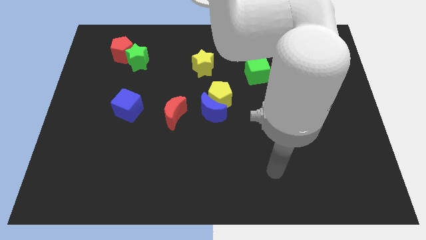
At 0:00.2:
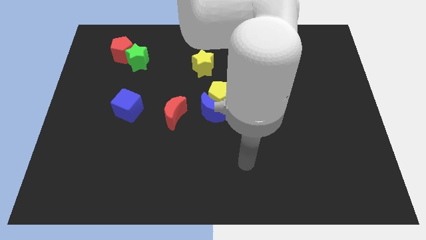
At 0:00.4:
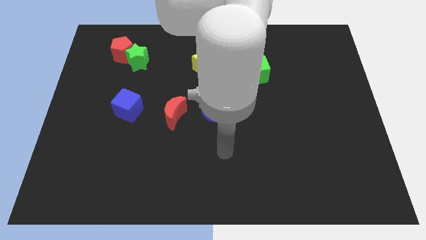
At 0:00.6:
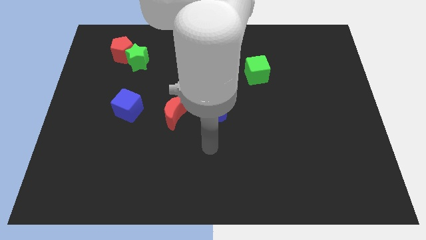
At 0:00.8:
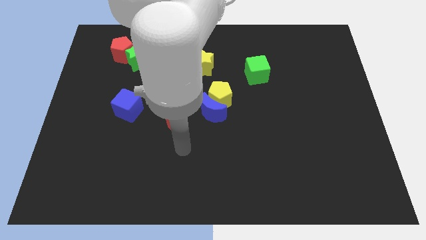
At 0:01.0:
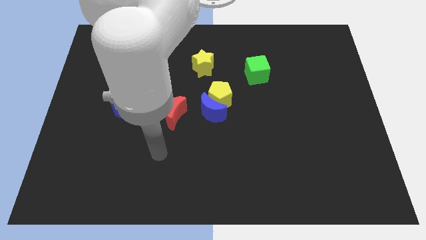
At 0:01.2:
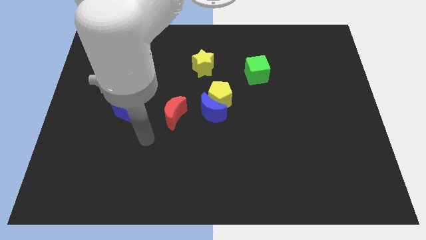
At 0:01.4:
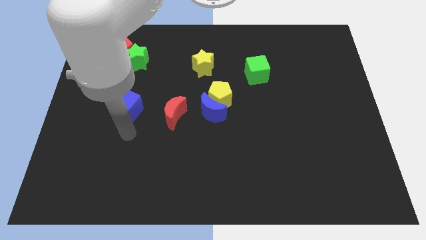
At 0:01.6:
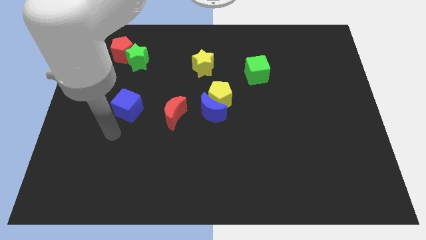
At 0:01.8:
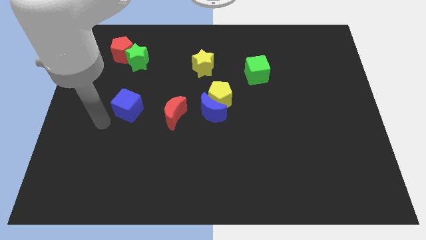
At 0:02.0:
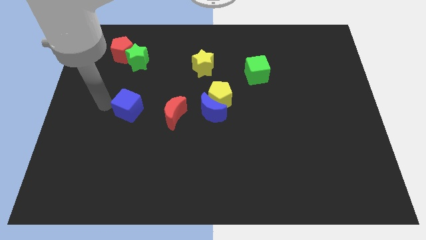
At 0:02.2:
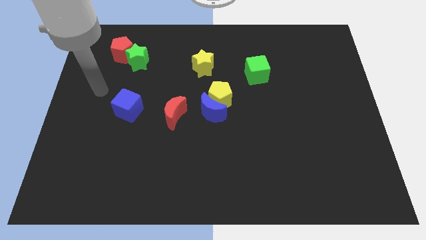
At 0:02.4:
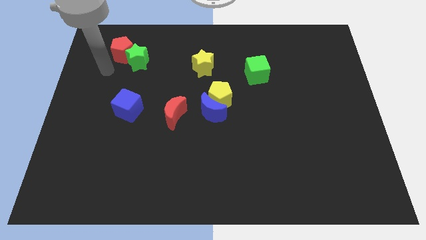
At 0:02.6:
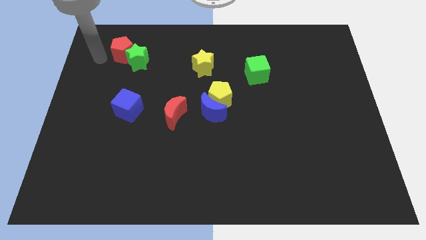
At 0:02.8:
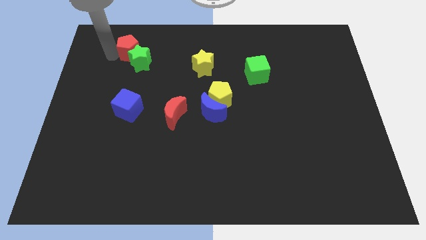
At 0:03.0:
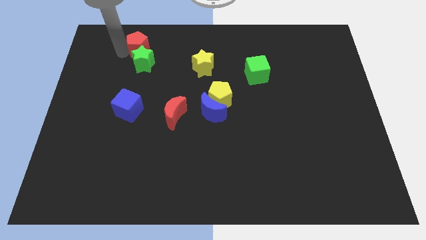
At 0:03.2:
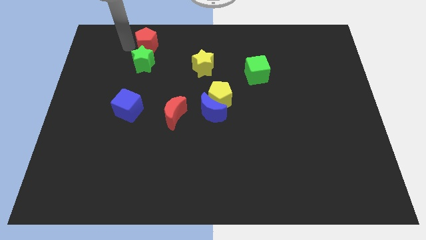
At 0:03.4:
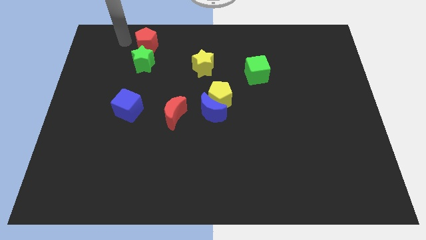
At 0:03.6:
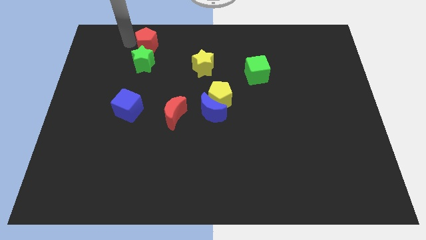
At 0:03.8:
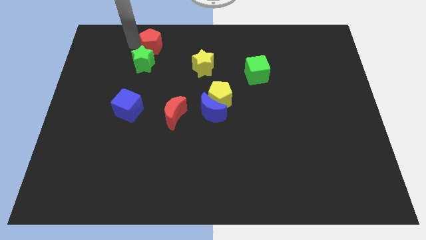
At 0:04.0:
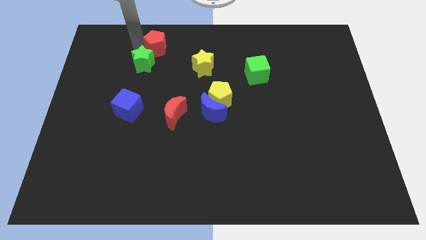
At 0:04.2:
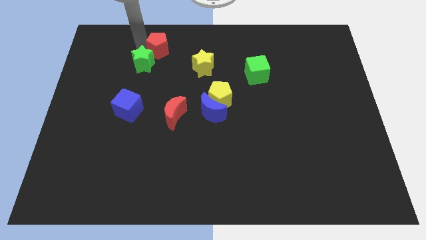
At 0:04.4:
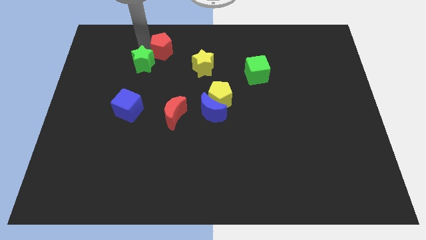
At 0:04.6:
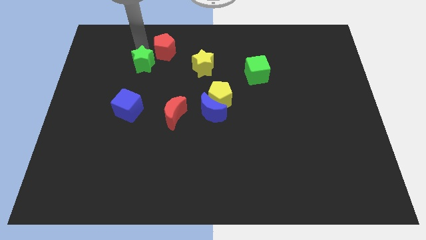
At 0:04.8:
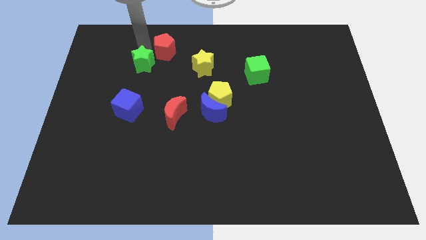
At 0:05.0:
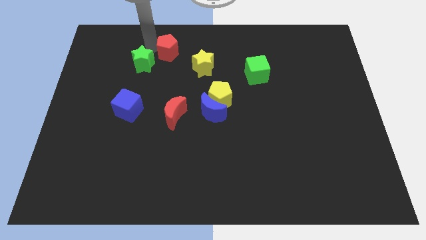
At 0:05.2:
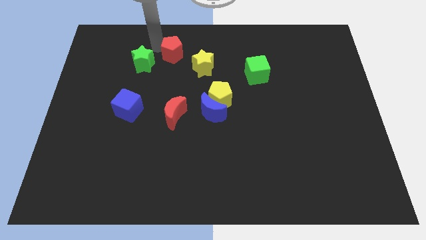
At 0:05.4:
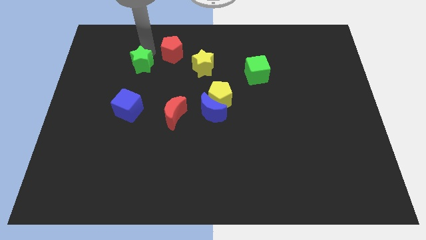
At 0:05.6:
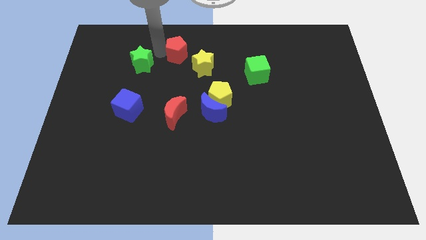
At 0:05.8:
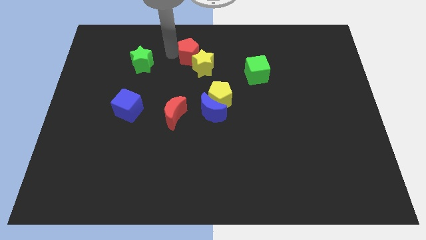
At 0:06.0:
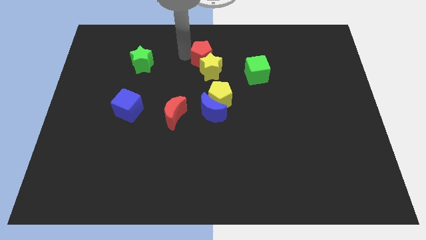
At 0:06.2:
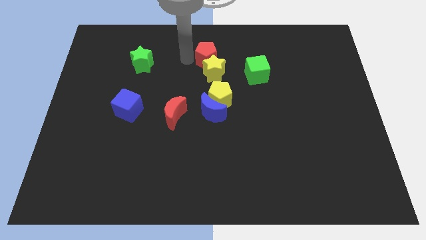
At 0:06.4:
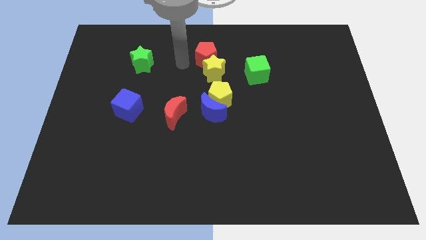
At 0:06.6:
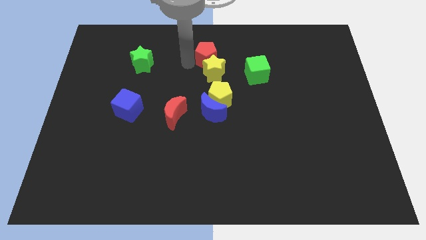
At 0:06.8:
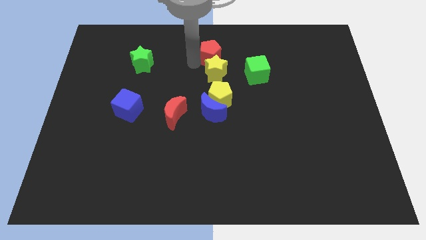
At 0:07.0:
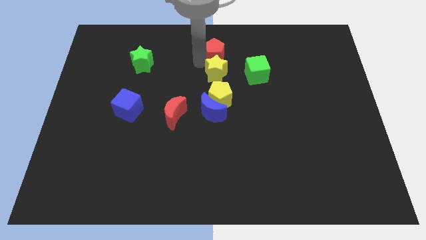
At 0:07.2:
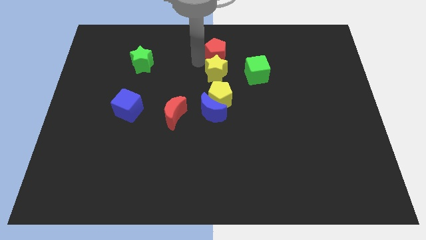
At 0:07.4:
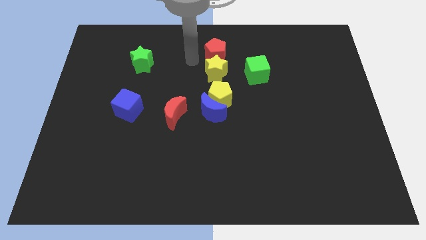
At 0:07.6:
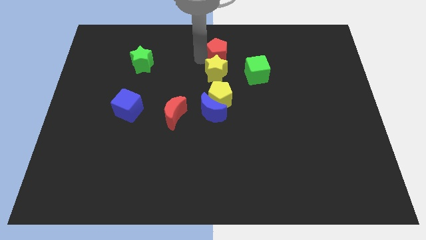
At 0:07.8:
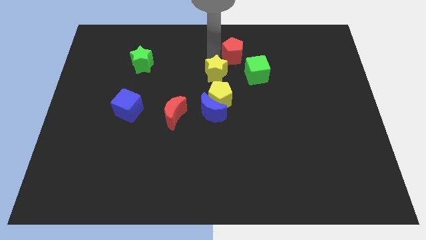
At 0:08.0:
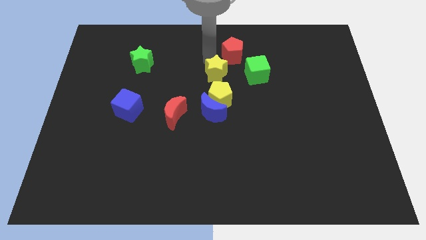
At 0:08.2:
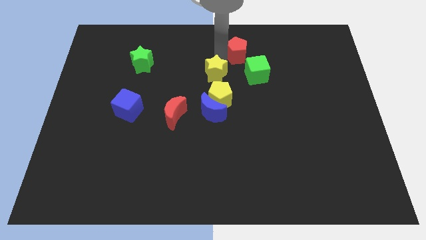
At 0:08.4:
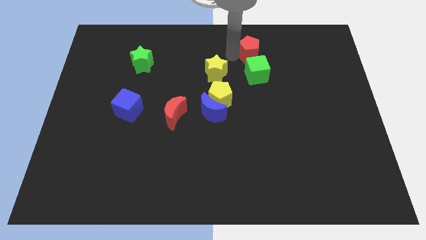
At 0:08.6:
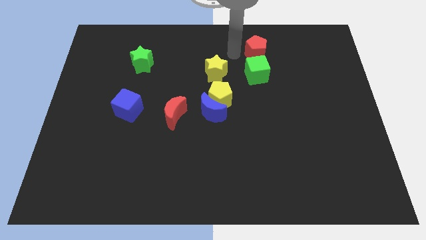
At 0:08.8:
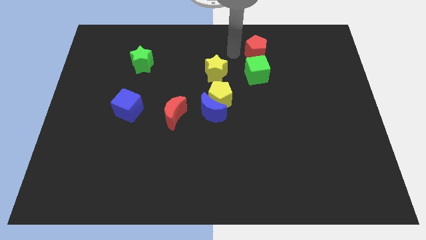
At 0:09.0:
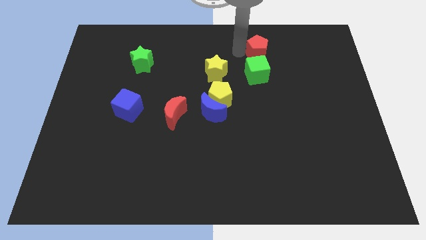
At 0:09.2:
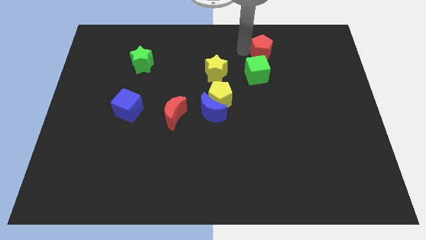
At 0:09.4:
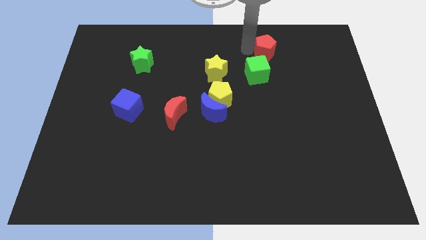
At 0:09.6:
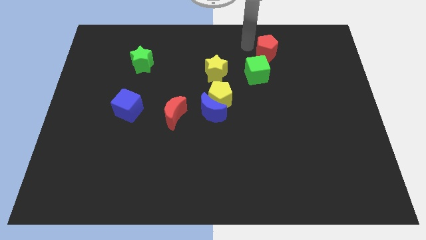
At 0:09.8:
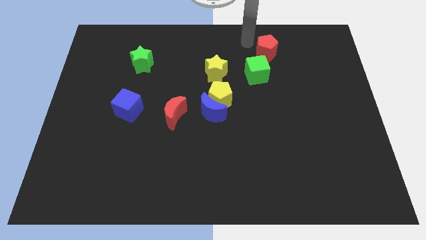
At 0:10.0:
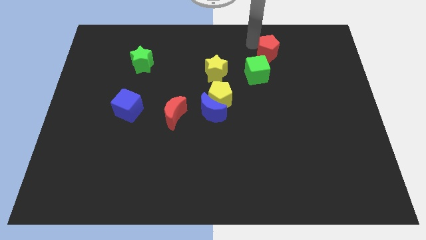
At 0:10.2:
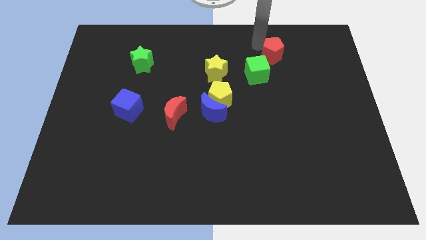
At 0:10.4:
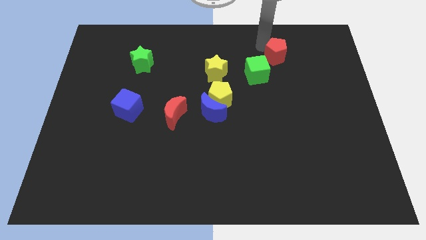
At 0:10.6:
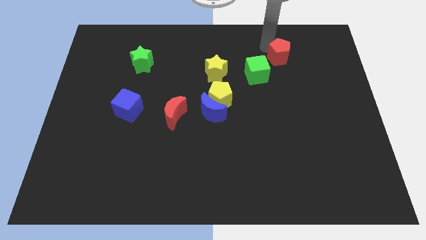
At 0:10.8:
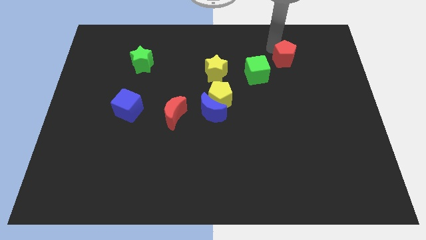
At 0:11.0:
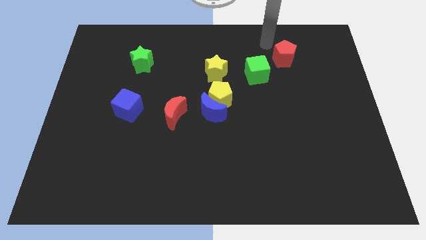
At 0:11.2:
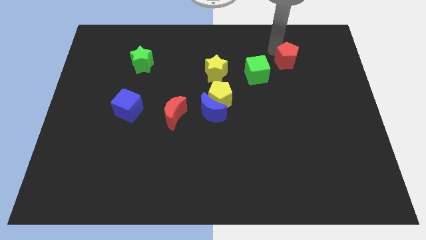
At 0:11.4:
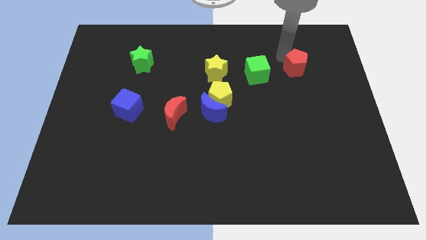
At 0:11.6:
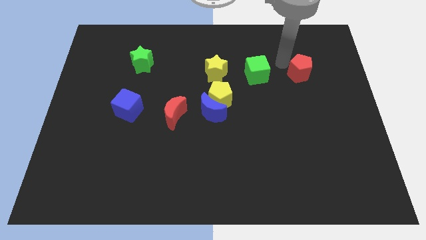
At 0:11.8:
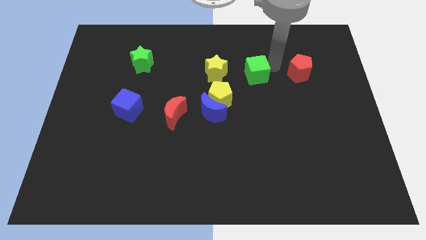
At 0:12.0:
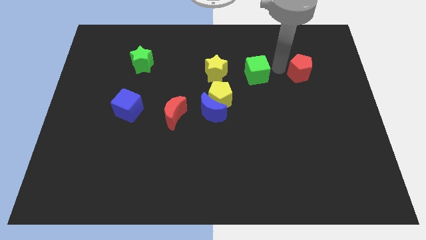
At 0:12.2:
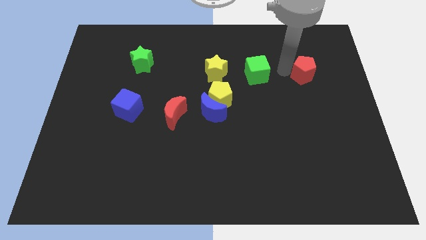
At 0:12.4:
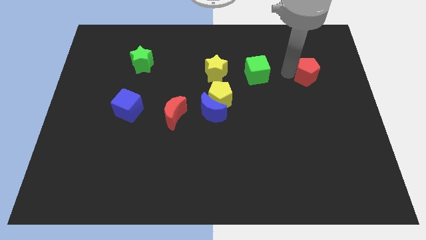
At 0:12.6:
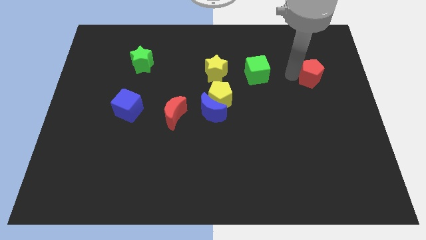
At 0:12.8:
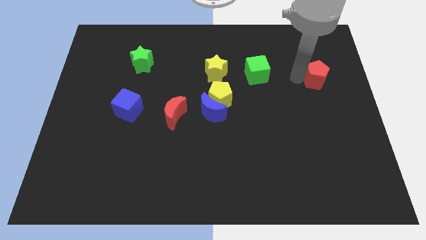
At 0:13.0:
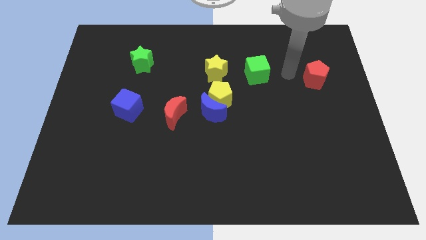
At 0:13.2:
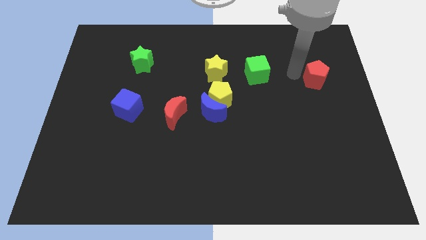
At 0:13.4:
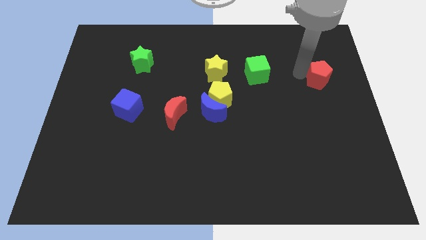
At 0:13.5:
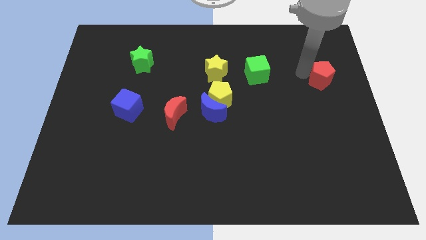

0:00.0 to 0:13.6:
push the red pentagon to the center right
